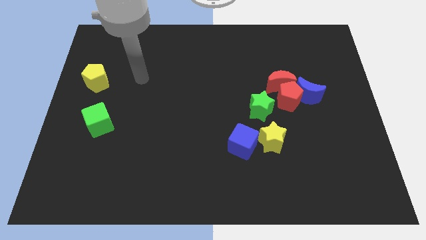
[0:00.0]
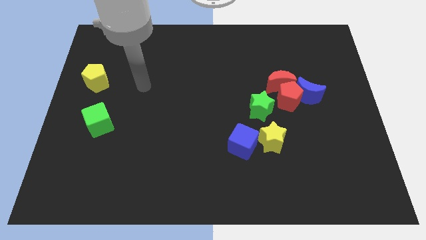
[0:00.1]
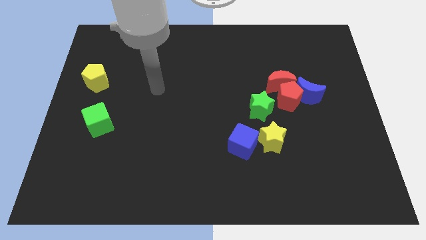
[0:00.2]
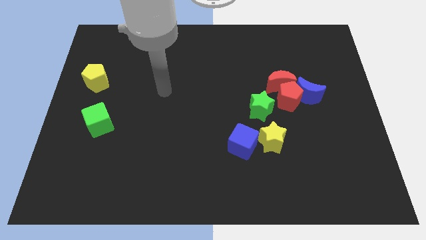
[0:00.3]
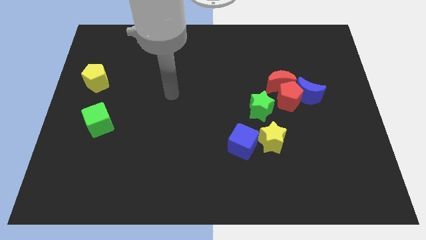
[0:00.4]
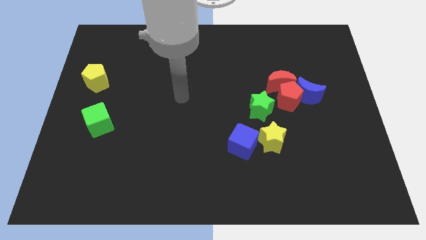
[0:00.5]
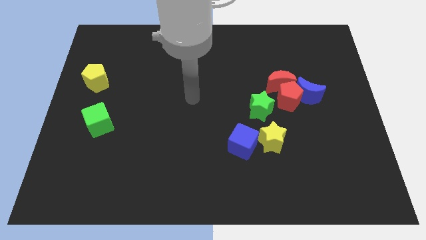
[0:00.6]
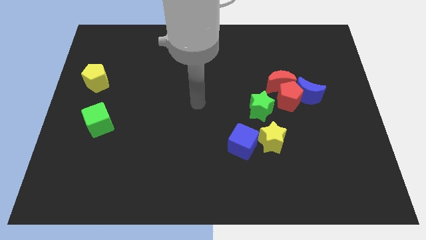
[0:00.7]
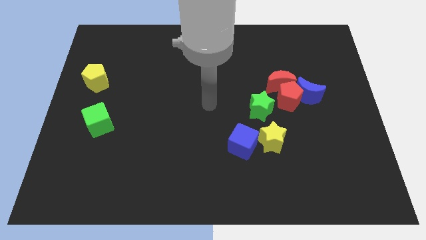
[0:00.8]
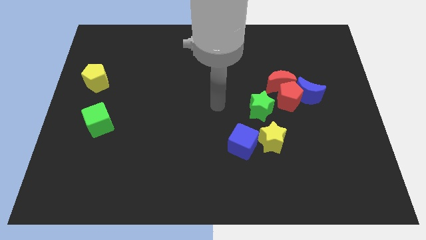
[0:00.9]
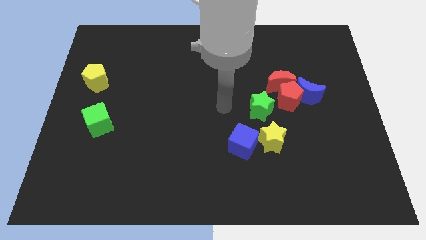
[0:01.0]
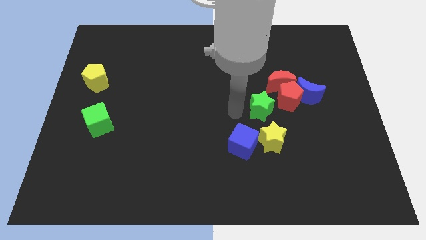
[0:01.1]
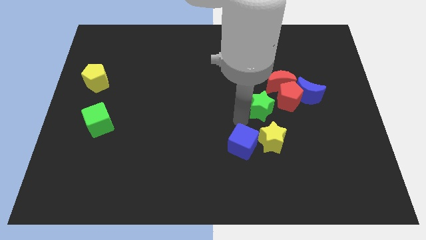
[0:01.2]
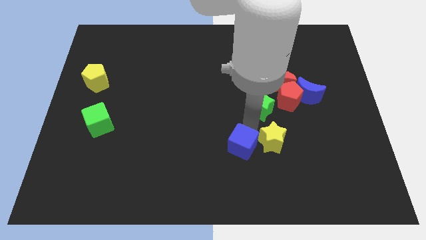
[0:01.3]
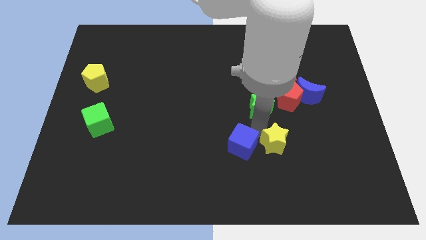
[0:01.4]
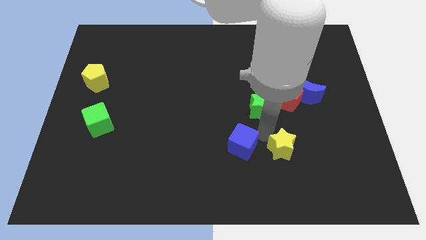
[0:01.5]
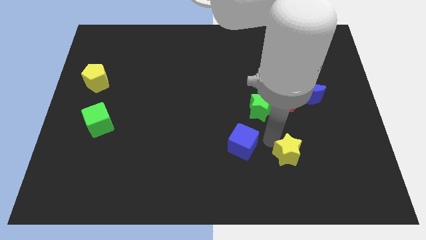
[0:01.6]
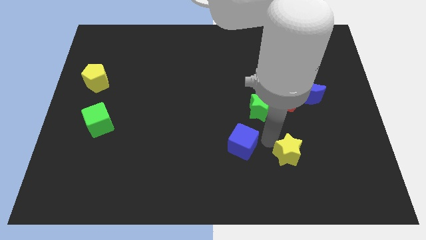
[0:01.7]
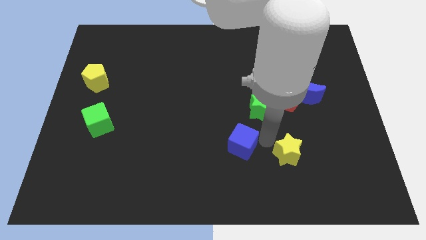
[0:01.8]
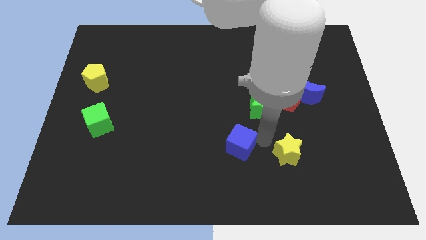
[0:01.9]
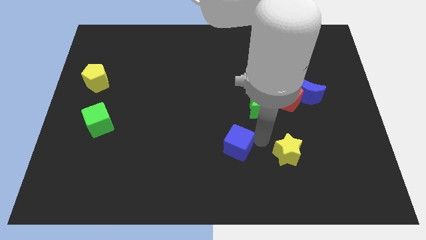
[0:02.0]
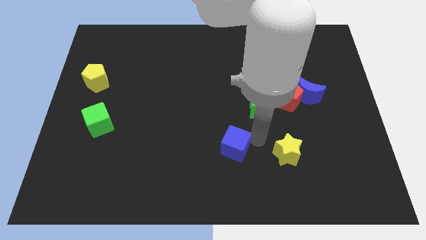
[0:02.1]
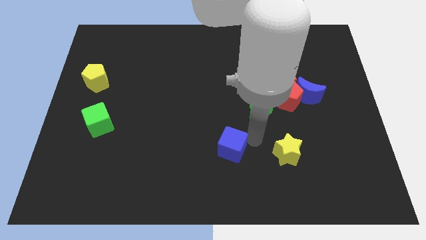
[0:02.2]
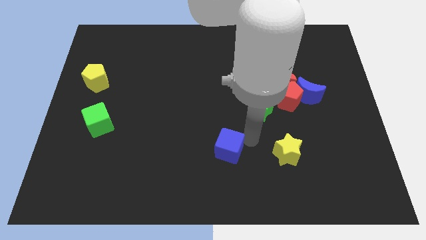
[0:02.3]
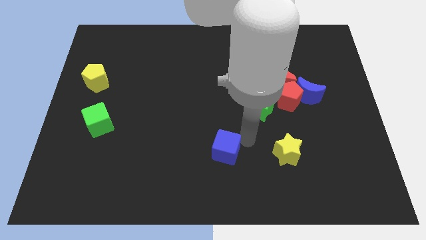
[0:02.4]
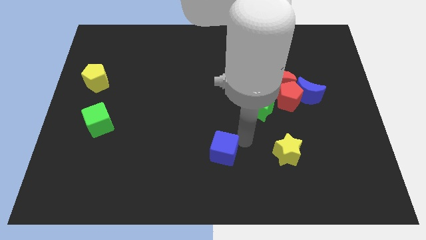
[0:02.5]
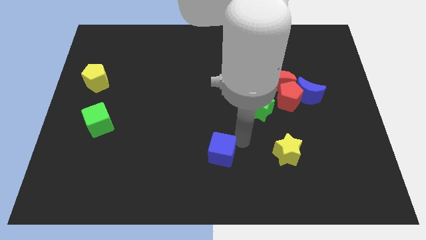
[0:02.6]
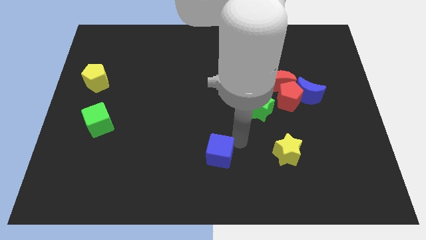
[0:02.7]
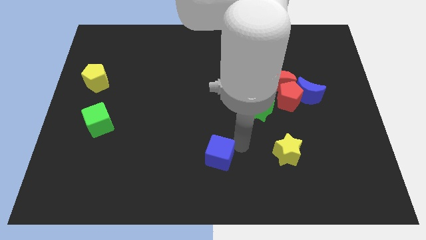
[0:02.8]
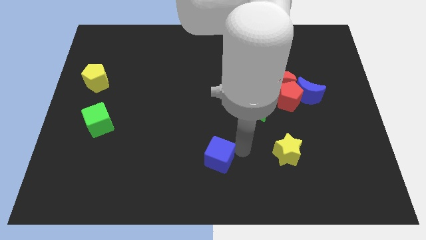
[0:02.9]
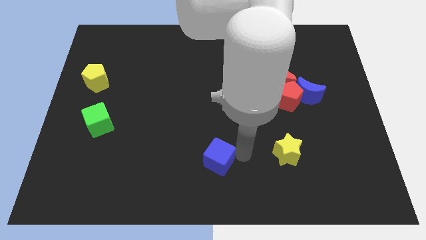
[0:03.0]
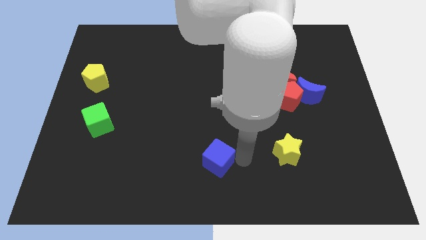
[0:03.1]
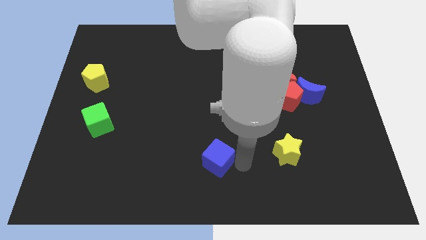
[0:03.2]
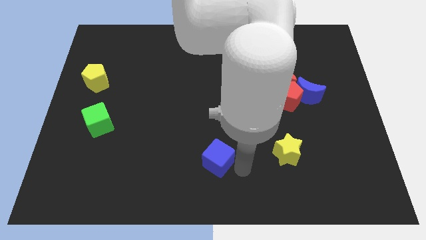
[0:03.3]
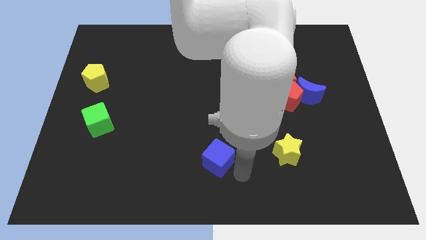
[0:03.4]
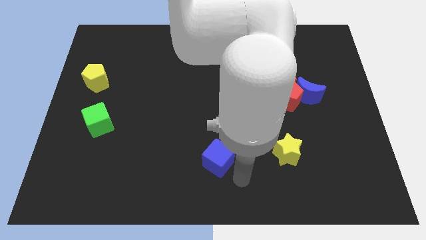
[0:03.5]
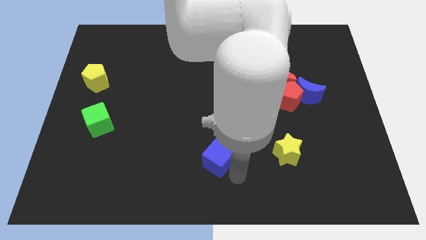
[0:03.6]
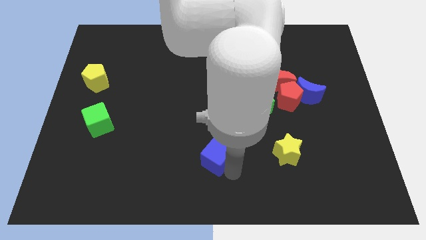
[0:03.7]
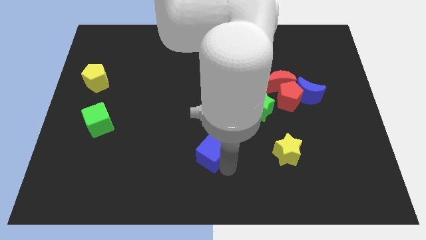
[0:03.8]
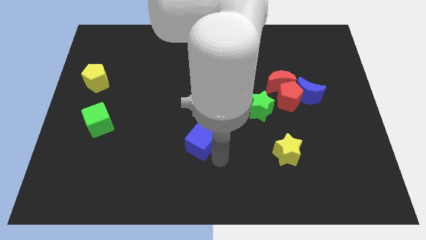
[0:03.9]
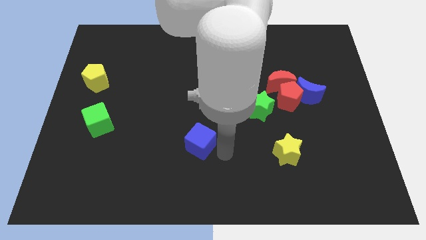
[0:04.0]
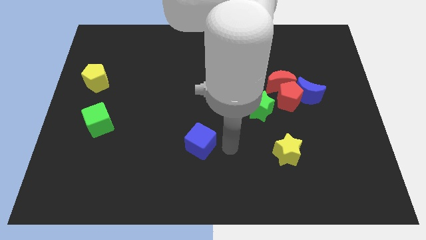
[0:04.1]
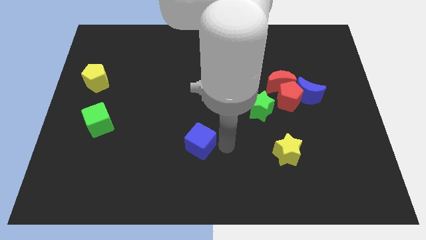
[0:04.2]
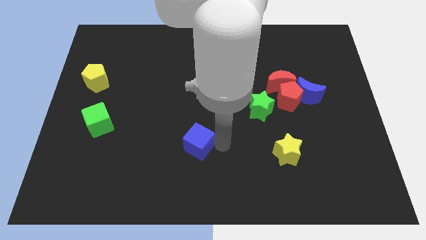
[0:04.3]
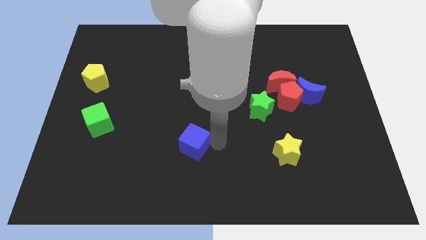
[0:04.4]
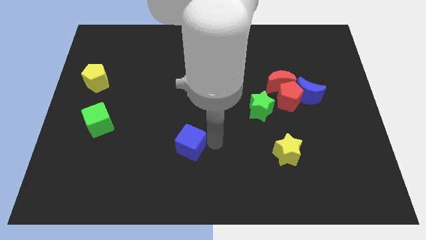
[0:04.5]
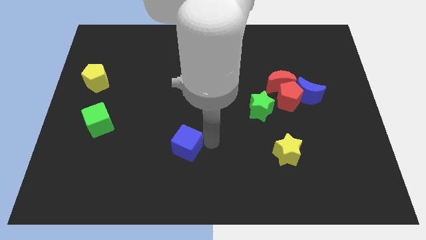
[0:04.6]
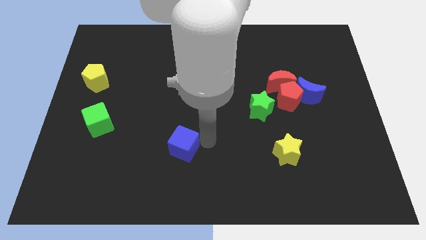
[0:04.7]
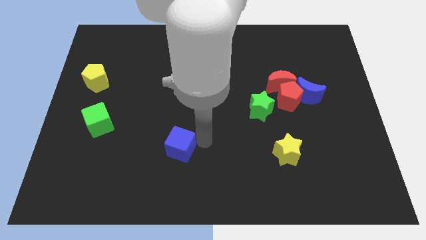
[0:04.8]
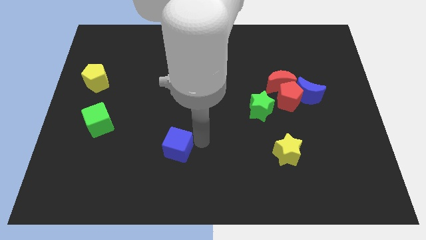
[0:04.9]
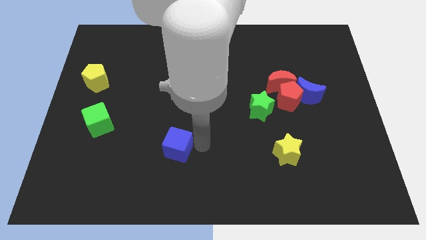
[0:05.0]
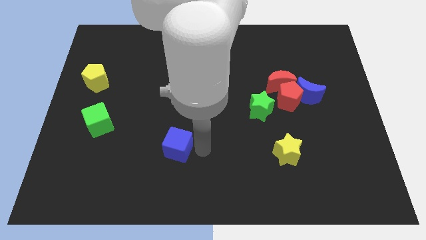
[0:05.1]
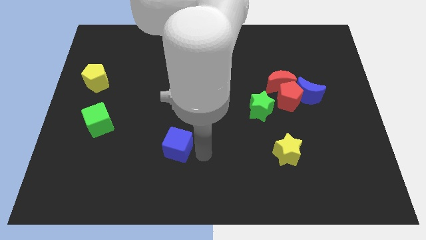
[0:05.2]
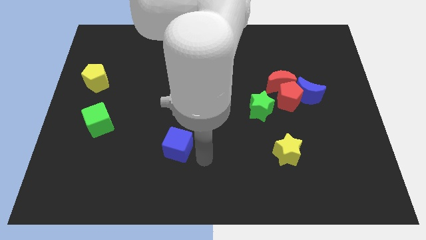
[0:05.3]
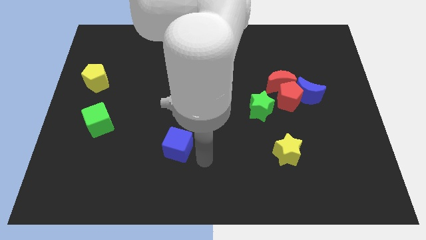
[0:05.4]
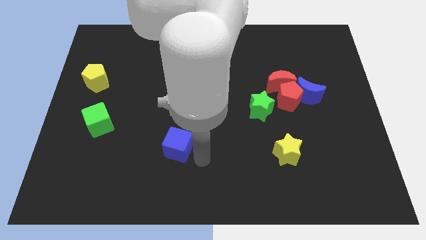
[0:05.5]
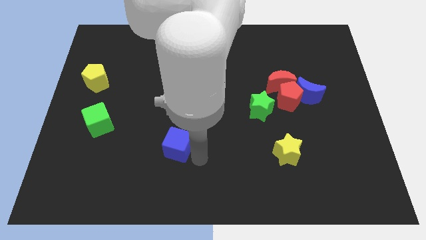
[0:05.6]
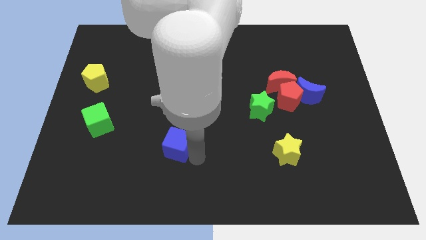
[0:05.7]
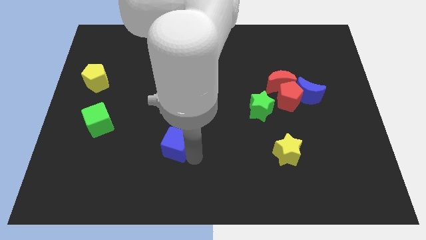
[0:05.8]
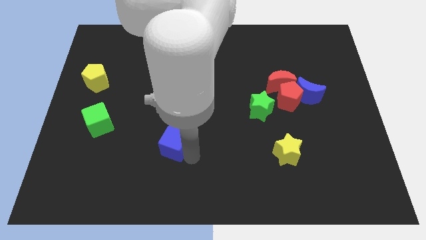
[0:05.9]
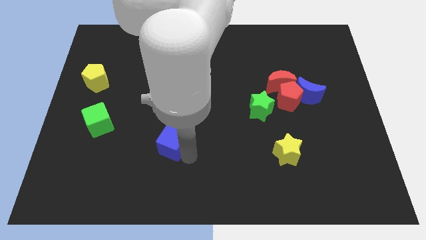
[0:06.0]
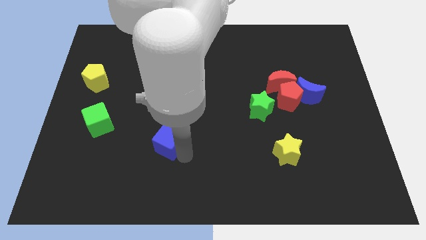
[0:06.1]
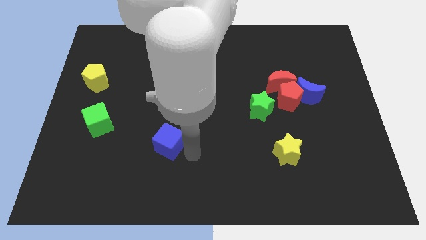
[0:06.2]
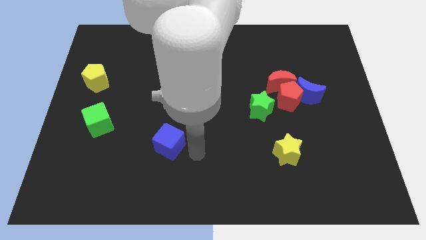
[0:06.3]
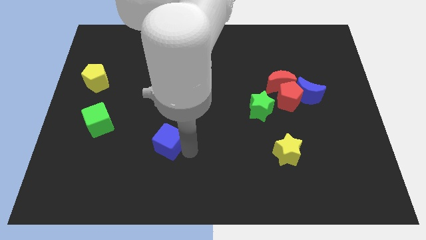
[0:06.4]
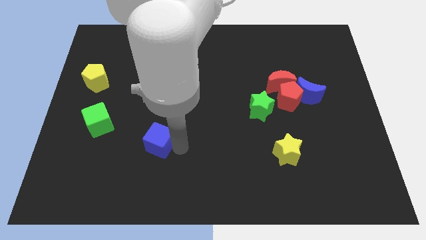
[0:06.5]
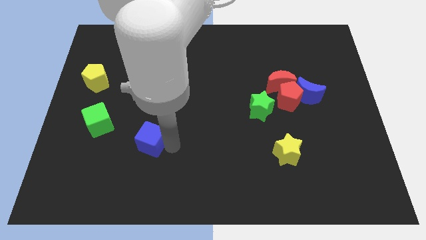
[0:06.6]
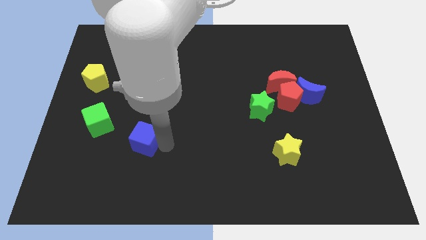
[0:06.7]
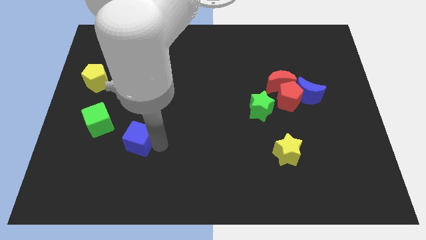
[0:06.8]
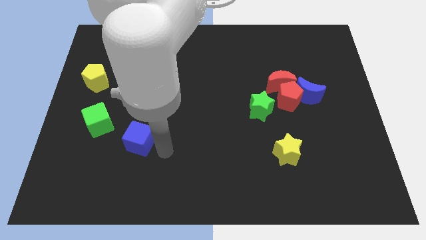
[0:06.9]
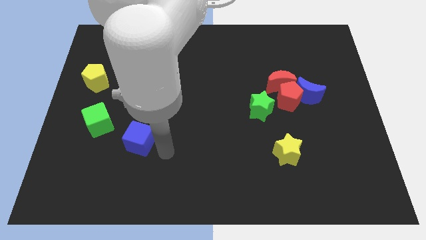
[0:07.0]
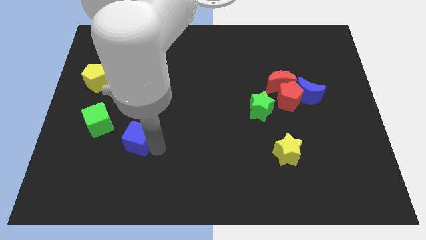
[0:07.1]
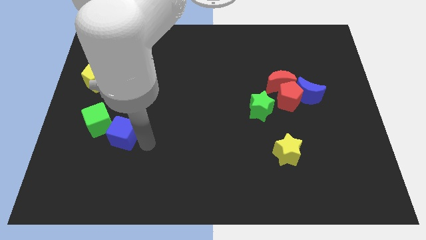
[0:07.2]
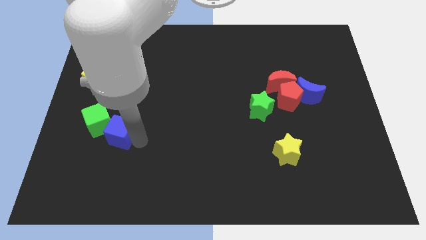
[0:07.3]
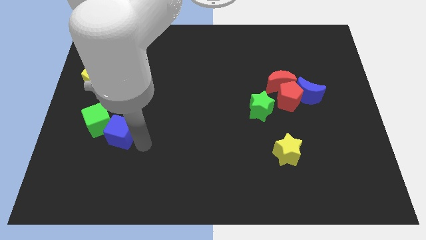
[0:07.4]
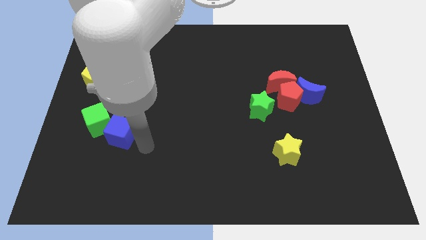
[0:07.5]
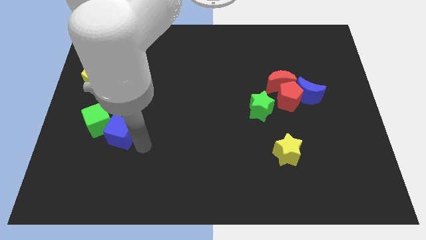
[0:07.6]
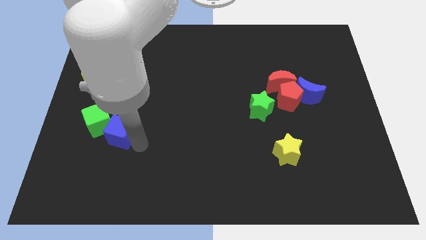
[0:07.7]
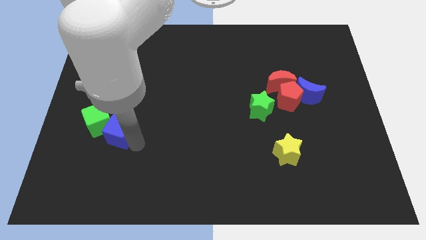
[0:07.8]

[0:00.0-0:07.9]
slide the blue cube next to the green cube

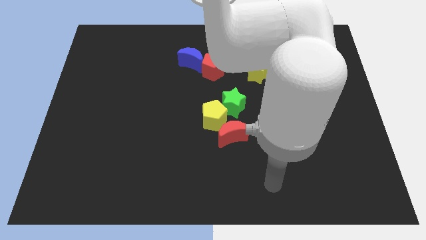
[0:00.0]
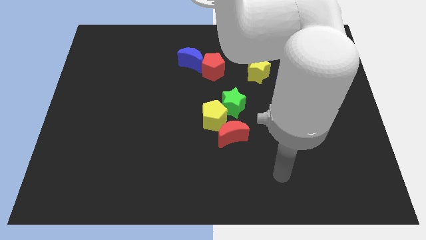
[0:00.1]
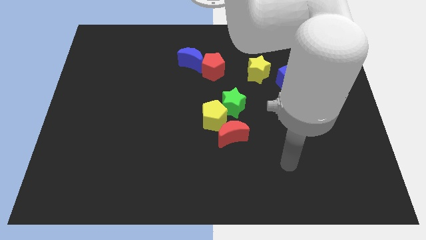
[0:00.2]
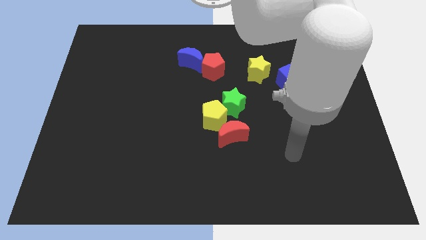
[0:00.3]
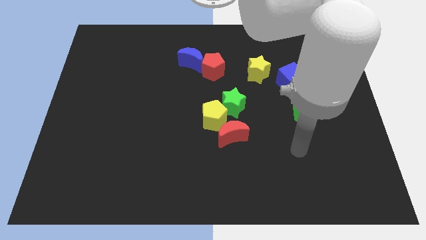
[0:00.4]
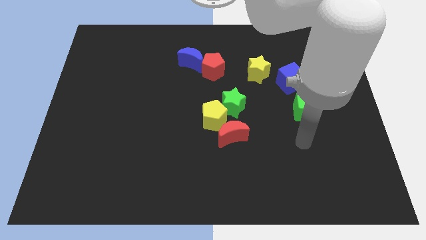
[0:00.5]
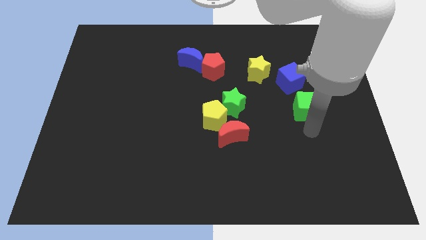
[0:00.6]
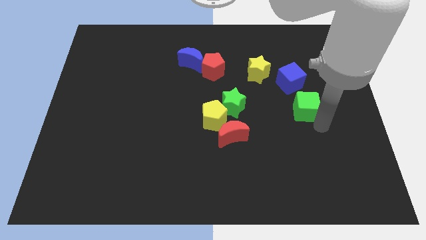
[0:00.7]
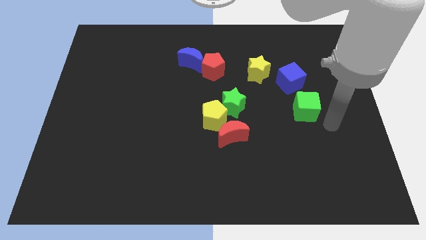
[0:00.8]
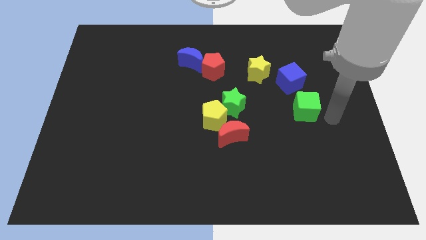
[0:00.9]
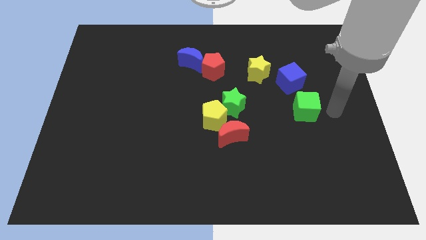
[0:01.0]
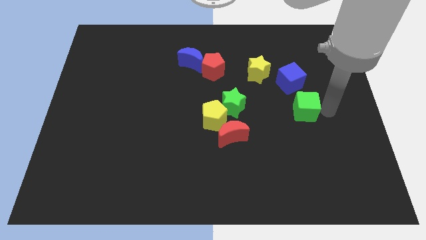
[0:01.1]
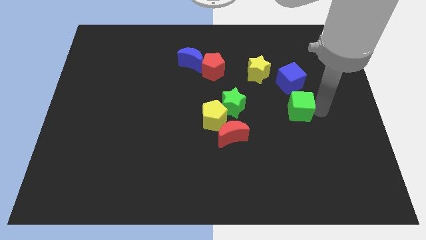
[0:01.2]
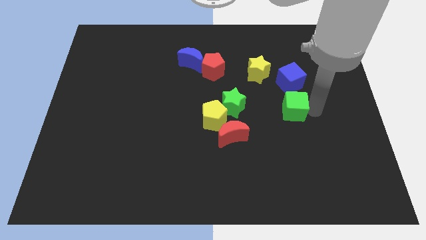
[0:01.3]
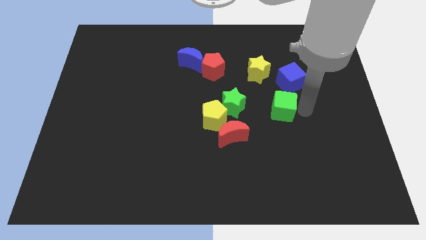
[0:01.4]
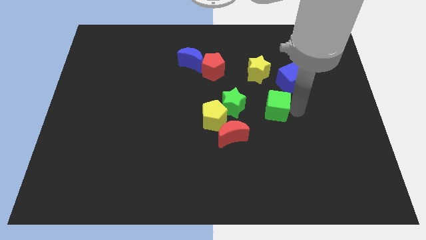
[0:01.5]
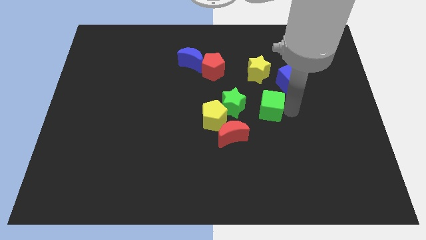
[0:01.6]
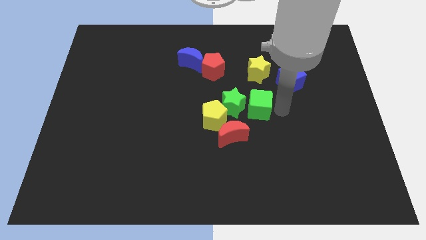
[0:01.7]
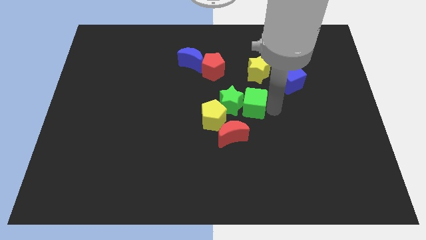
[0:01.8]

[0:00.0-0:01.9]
push the green cube towards the green star
